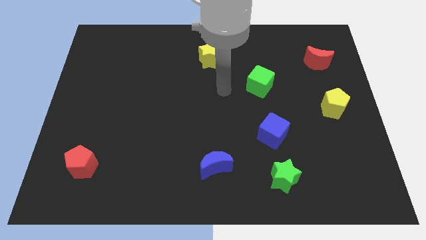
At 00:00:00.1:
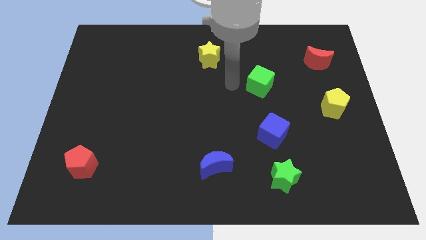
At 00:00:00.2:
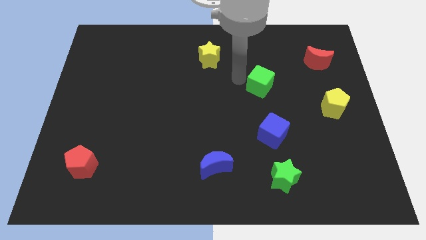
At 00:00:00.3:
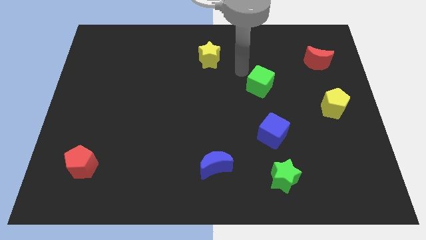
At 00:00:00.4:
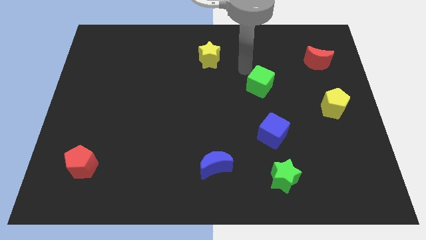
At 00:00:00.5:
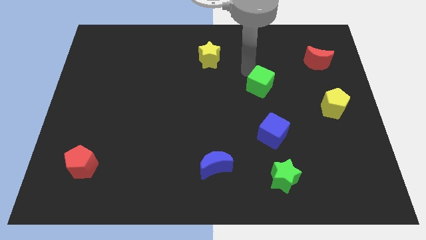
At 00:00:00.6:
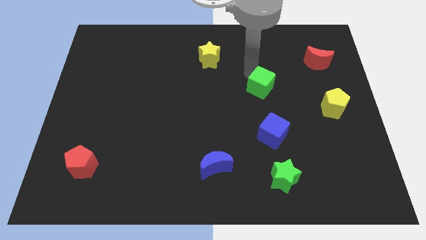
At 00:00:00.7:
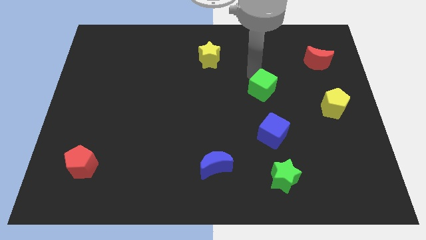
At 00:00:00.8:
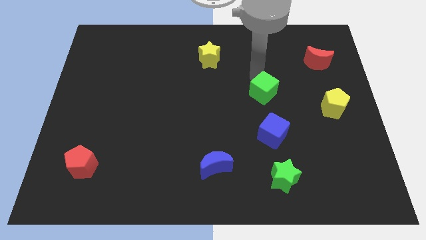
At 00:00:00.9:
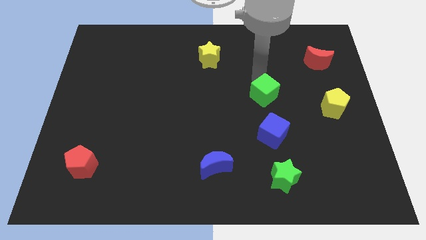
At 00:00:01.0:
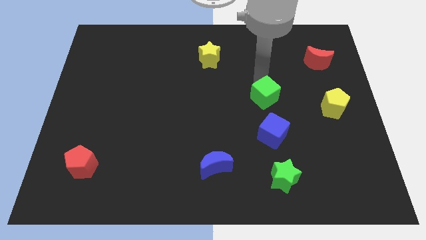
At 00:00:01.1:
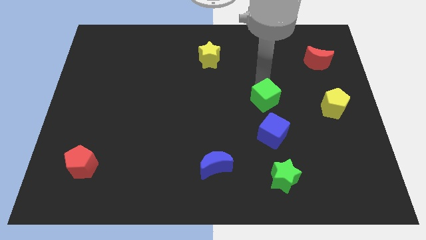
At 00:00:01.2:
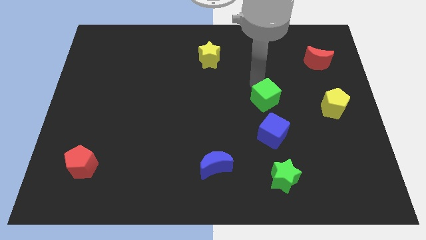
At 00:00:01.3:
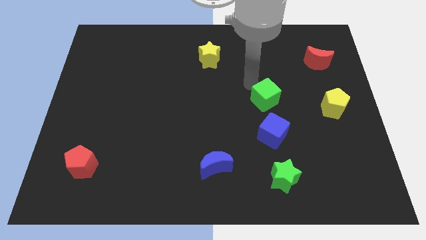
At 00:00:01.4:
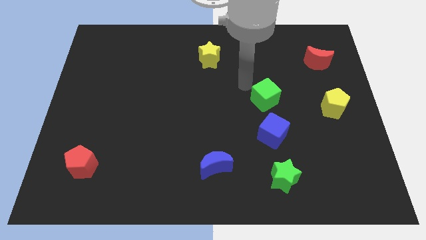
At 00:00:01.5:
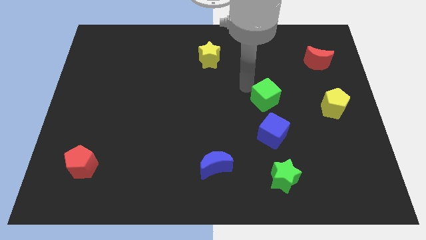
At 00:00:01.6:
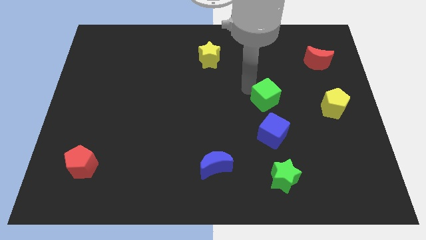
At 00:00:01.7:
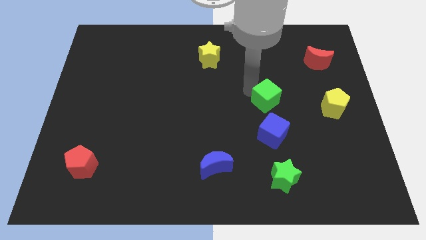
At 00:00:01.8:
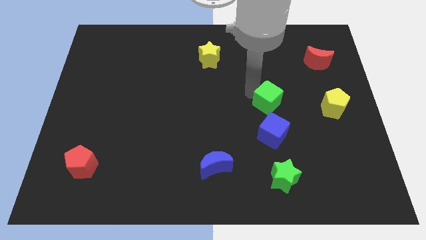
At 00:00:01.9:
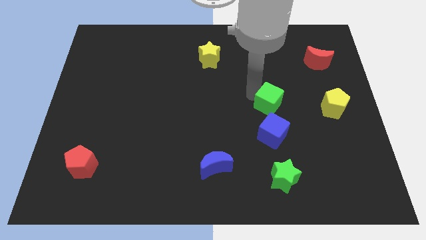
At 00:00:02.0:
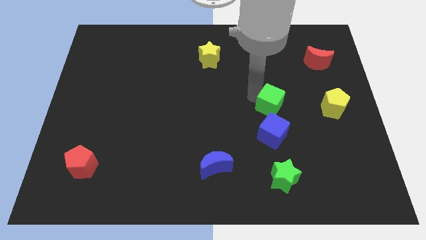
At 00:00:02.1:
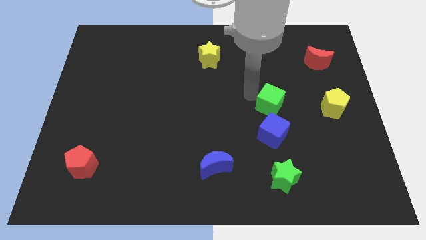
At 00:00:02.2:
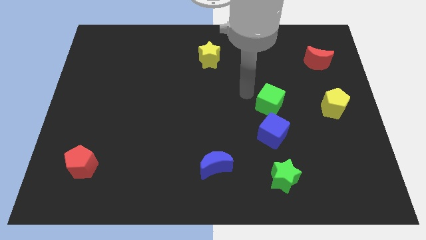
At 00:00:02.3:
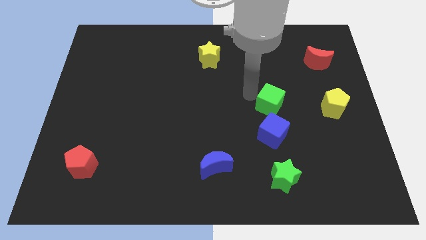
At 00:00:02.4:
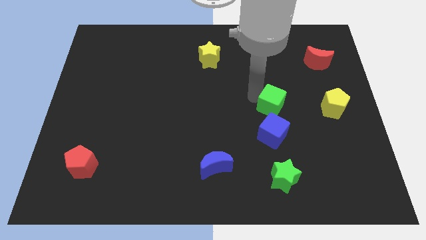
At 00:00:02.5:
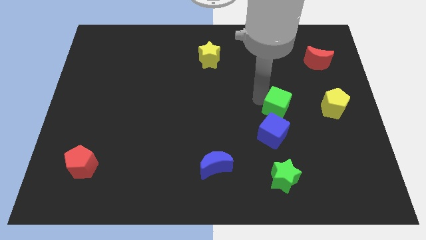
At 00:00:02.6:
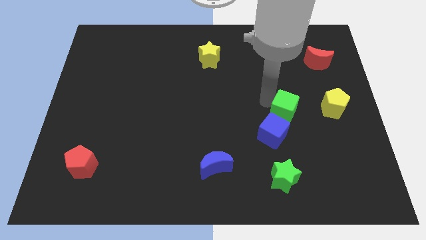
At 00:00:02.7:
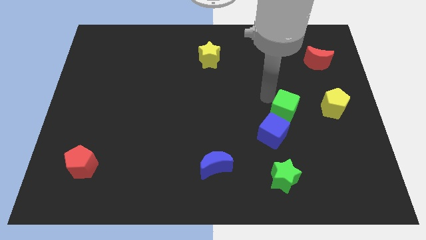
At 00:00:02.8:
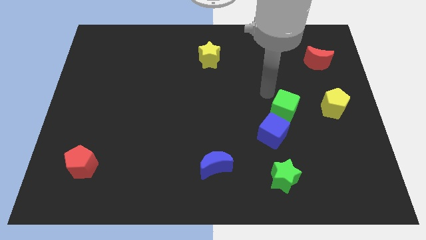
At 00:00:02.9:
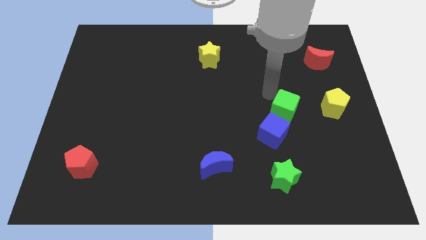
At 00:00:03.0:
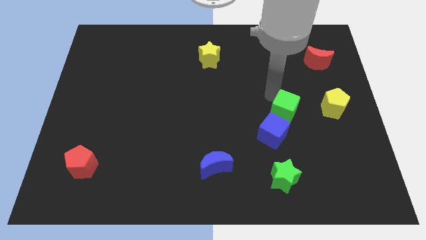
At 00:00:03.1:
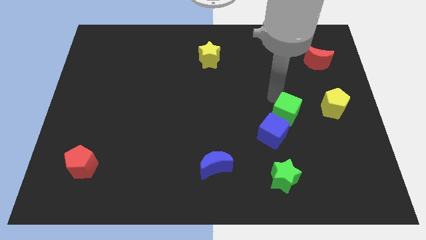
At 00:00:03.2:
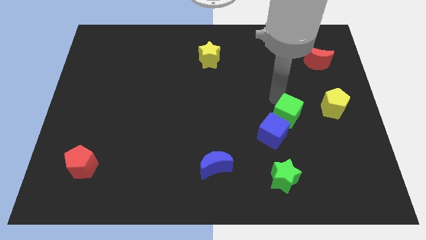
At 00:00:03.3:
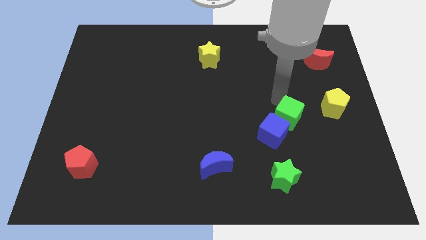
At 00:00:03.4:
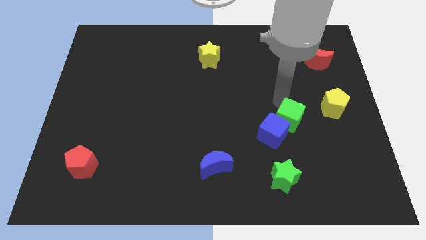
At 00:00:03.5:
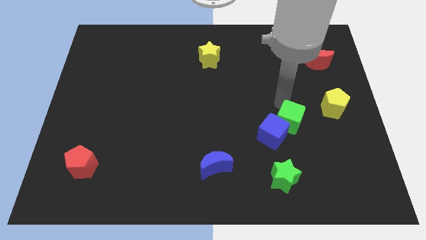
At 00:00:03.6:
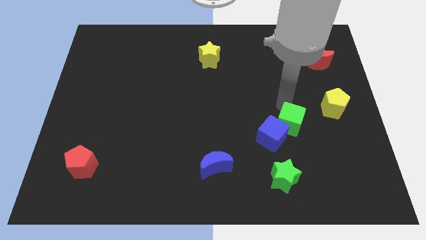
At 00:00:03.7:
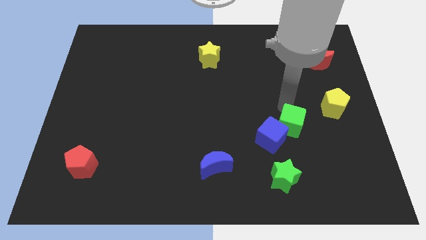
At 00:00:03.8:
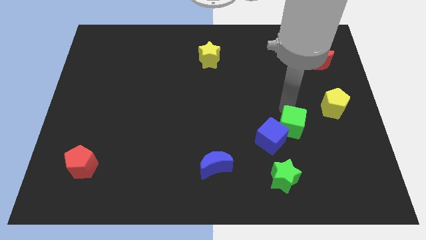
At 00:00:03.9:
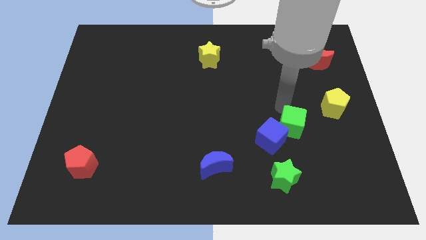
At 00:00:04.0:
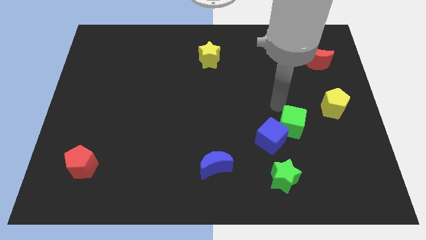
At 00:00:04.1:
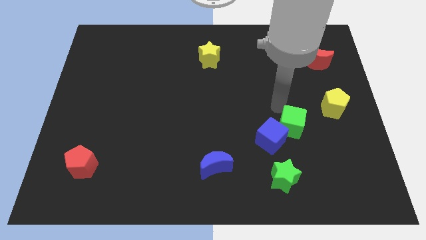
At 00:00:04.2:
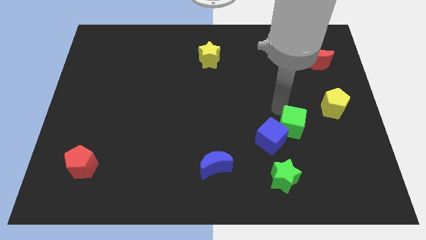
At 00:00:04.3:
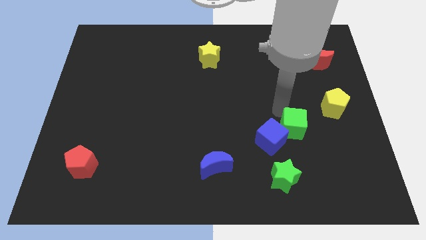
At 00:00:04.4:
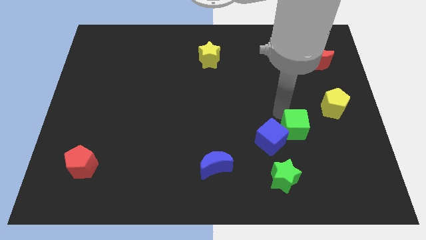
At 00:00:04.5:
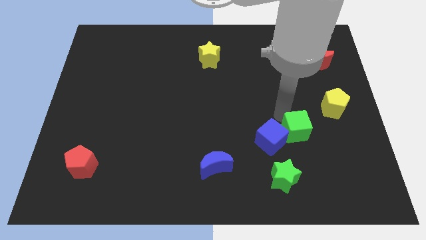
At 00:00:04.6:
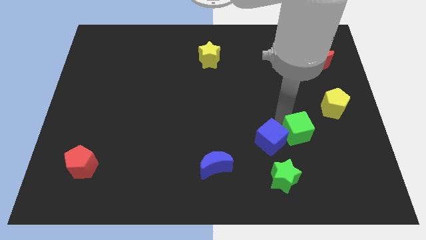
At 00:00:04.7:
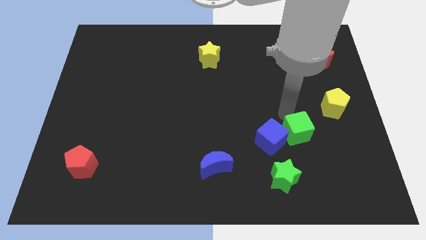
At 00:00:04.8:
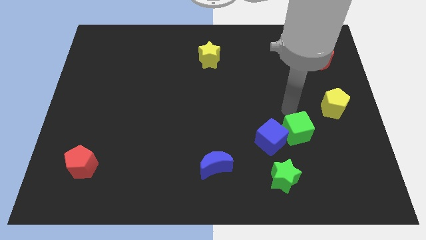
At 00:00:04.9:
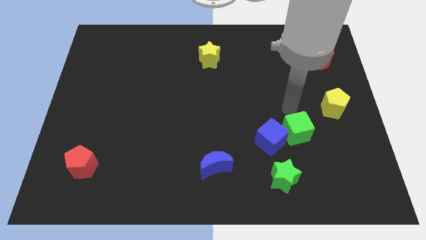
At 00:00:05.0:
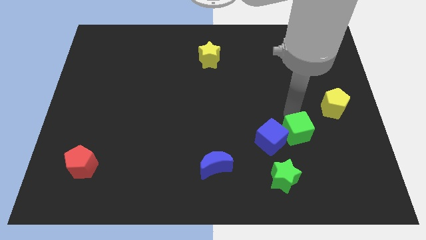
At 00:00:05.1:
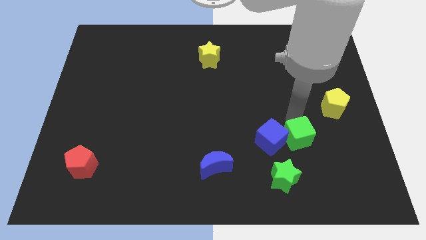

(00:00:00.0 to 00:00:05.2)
put the green cube to the top right side of the green star

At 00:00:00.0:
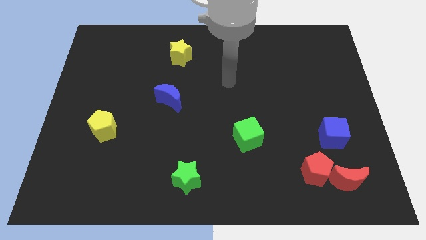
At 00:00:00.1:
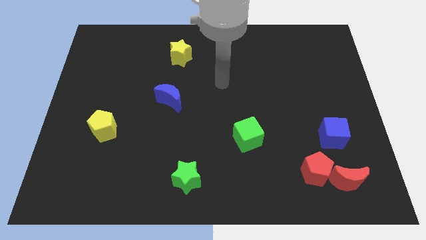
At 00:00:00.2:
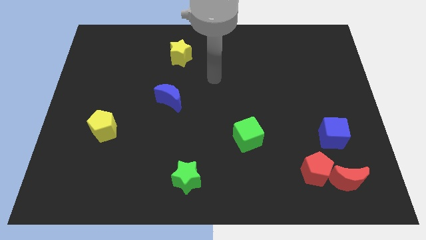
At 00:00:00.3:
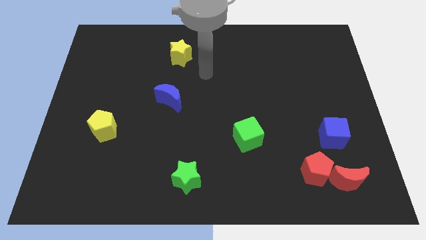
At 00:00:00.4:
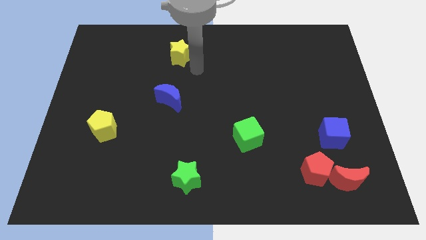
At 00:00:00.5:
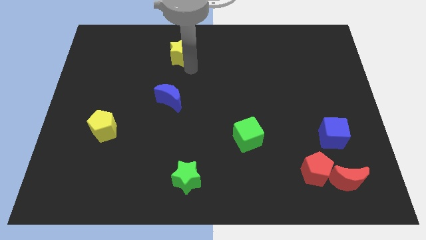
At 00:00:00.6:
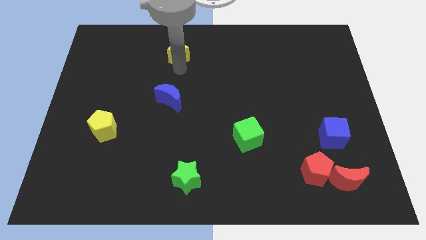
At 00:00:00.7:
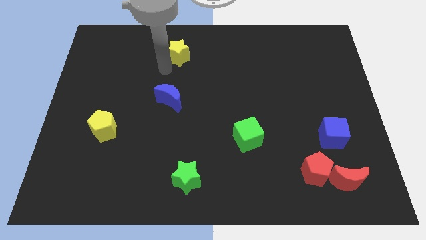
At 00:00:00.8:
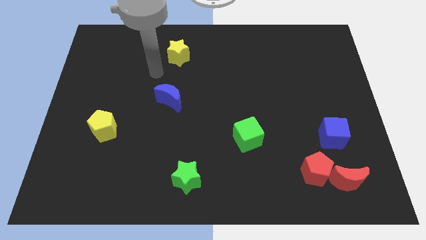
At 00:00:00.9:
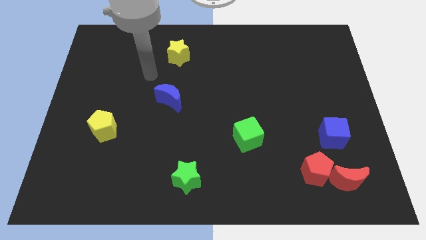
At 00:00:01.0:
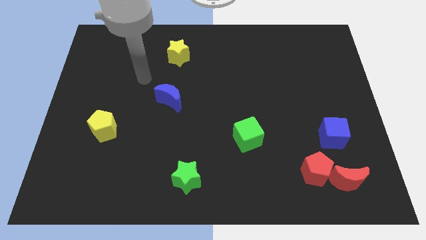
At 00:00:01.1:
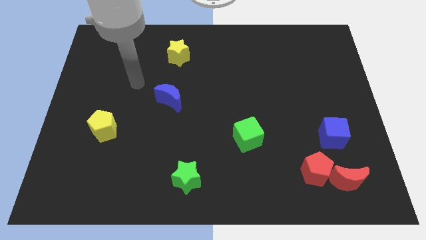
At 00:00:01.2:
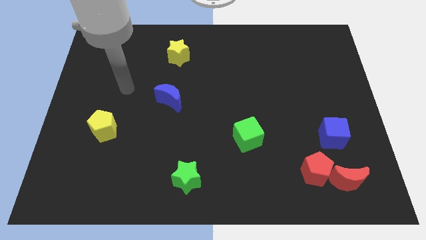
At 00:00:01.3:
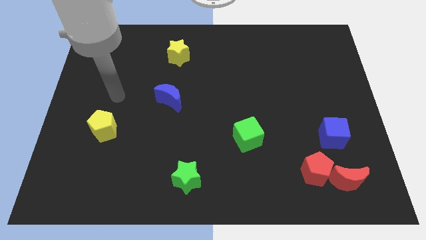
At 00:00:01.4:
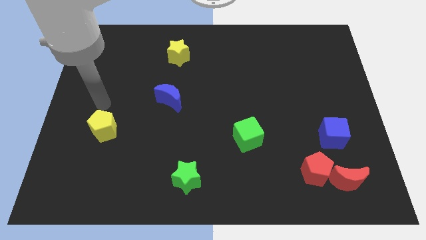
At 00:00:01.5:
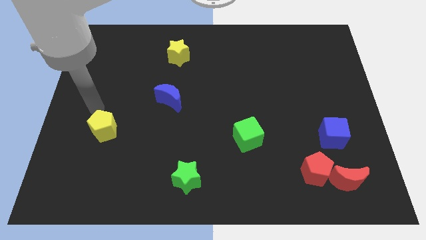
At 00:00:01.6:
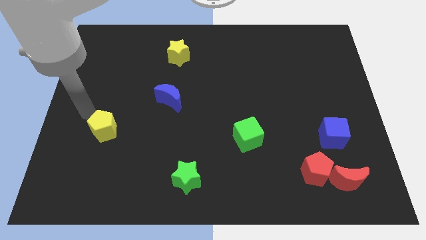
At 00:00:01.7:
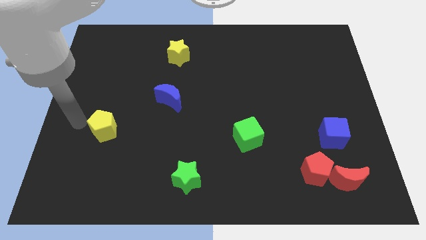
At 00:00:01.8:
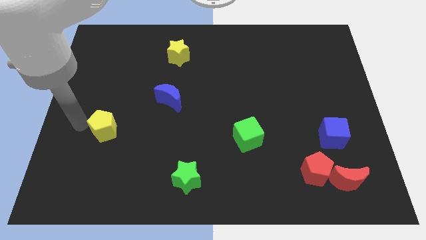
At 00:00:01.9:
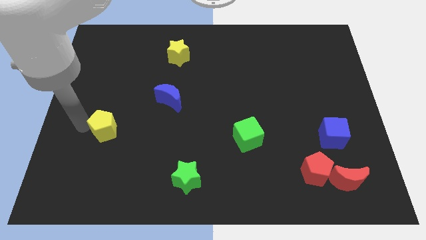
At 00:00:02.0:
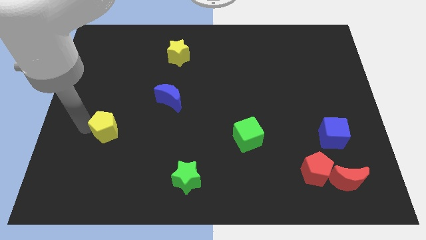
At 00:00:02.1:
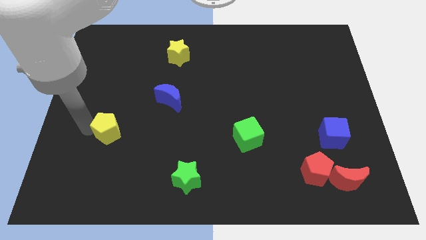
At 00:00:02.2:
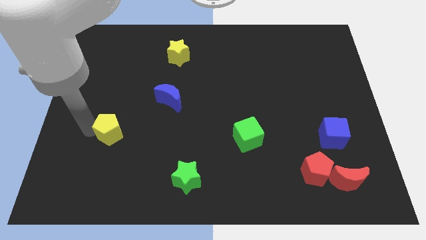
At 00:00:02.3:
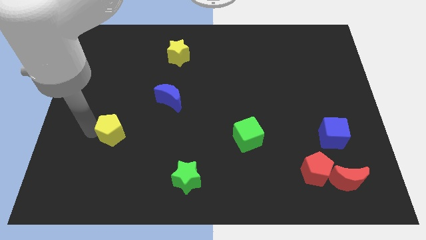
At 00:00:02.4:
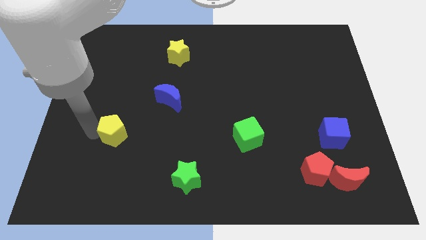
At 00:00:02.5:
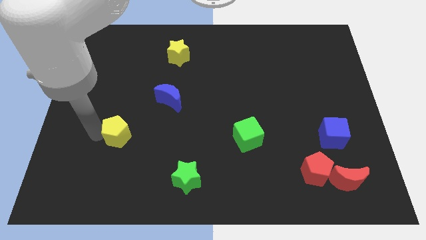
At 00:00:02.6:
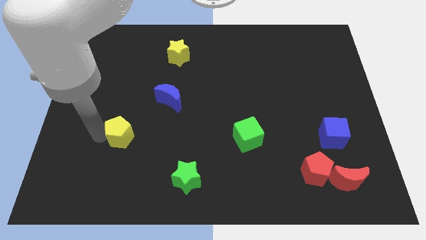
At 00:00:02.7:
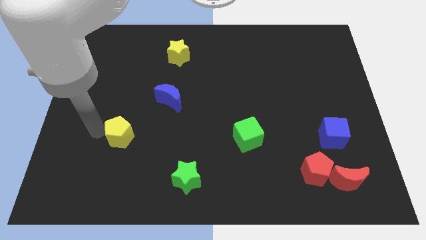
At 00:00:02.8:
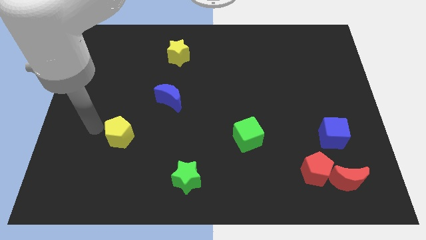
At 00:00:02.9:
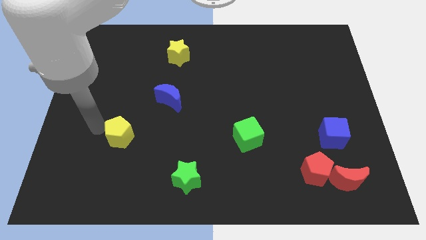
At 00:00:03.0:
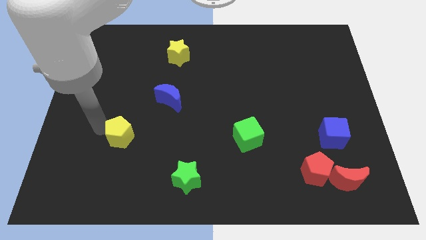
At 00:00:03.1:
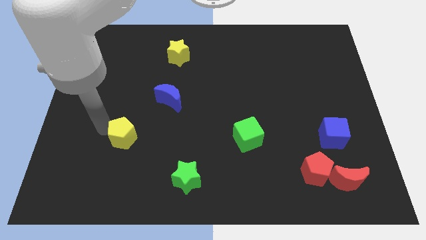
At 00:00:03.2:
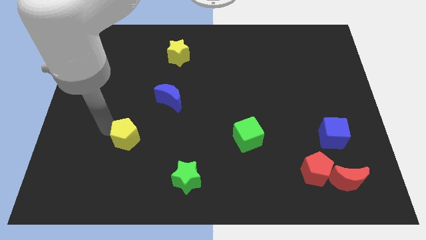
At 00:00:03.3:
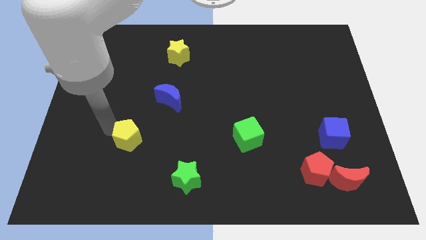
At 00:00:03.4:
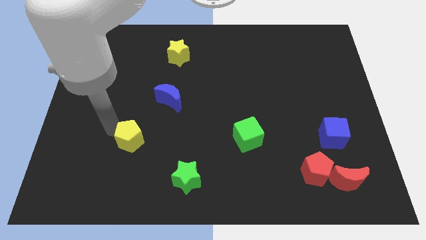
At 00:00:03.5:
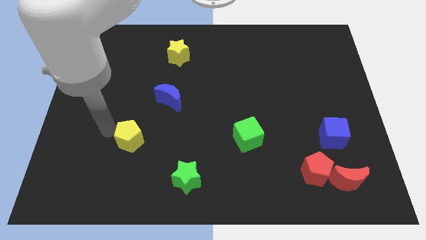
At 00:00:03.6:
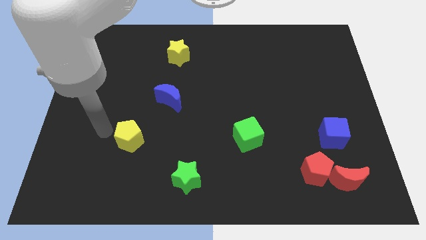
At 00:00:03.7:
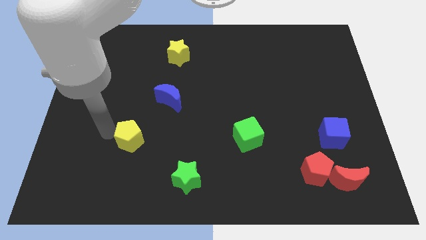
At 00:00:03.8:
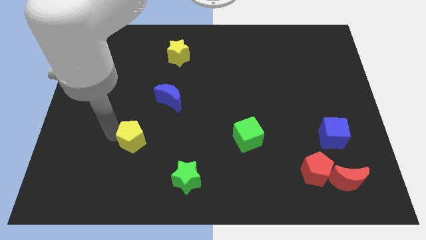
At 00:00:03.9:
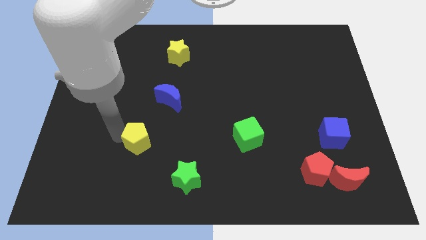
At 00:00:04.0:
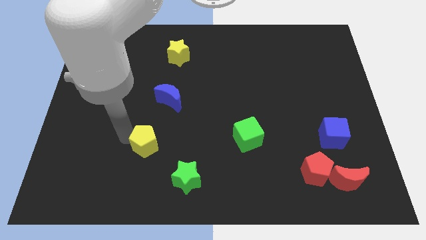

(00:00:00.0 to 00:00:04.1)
push the yellow pentagon to the top left of the green star
